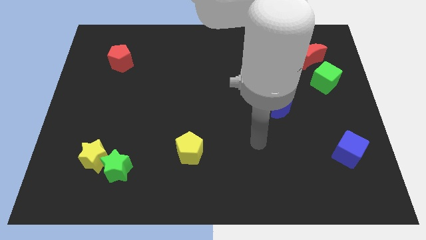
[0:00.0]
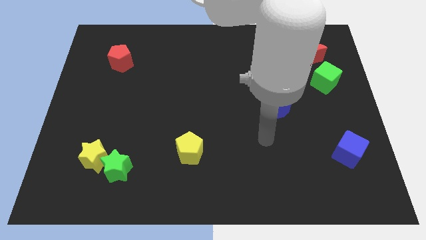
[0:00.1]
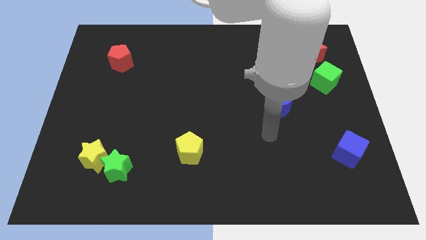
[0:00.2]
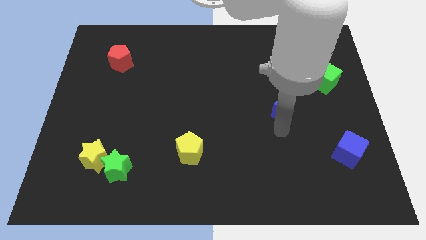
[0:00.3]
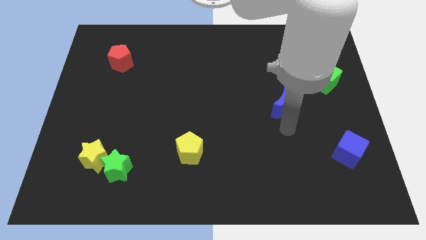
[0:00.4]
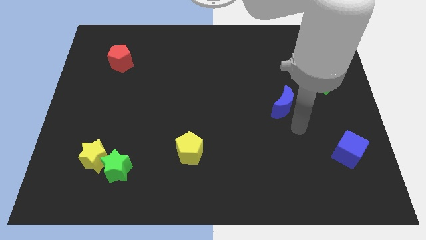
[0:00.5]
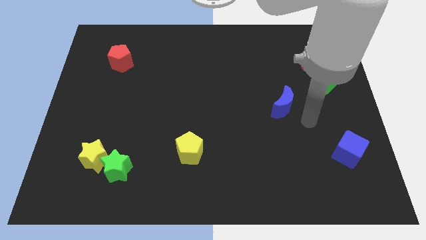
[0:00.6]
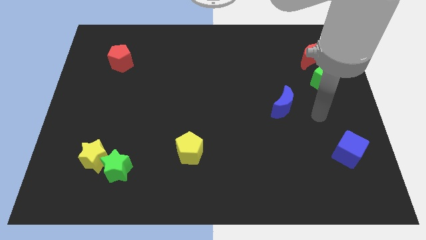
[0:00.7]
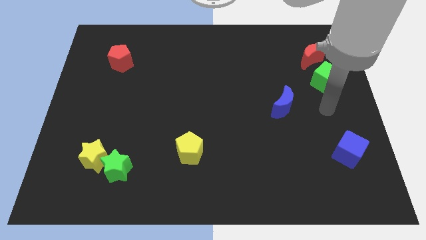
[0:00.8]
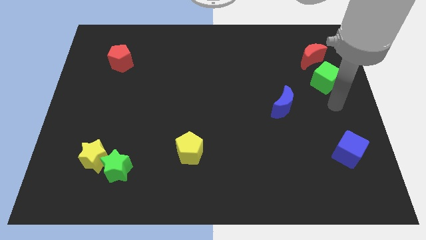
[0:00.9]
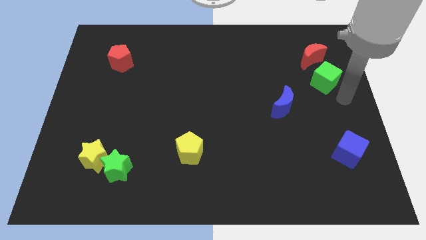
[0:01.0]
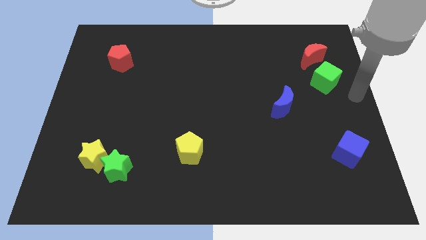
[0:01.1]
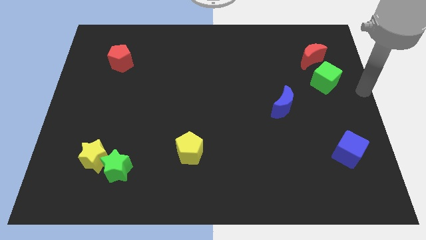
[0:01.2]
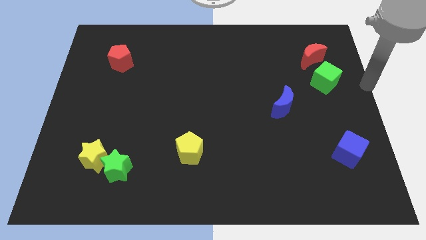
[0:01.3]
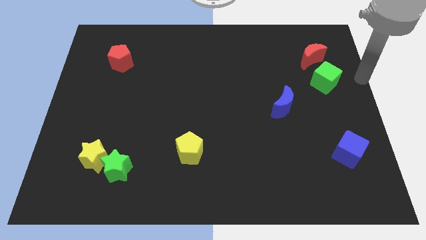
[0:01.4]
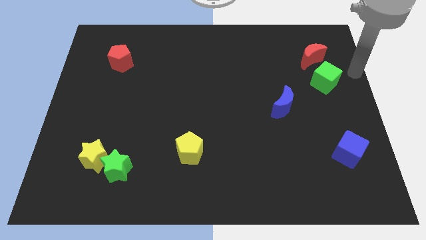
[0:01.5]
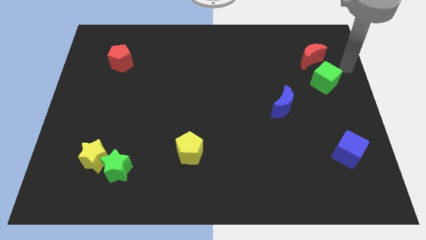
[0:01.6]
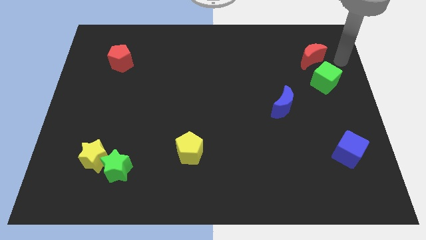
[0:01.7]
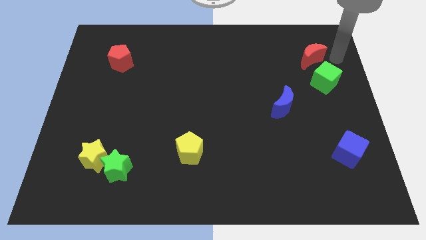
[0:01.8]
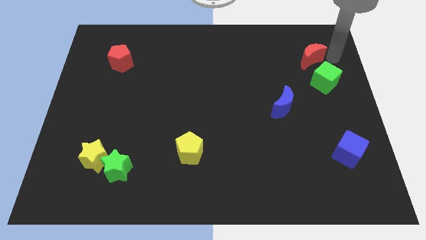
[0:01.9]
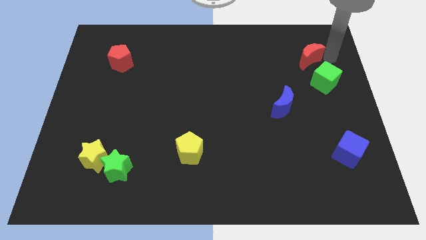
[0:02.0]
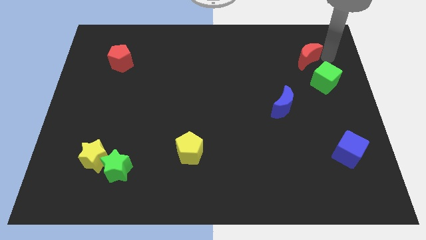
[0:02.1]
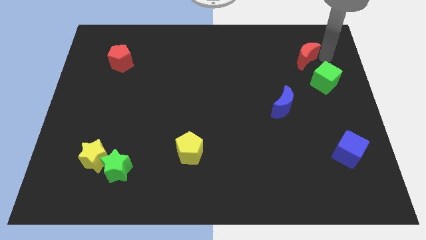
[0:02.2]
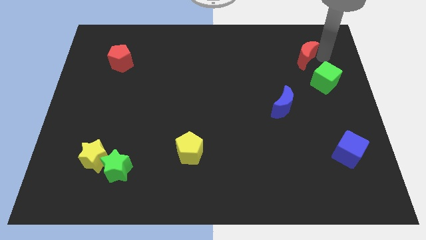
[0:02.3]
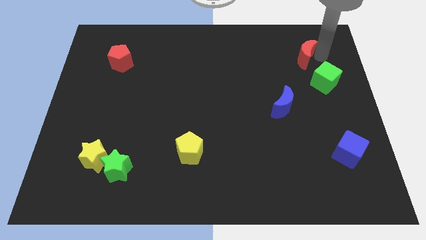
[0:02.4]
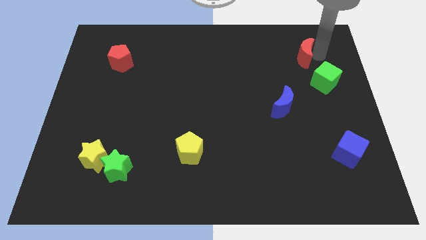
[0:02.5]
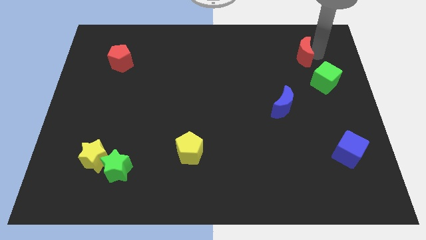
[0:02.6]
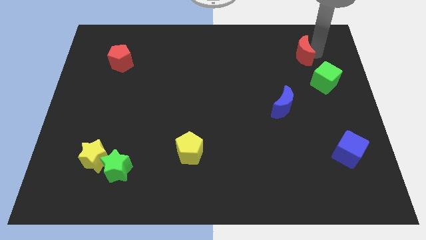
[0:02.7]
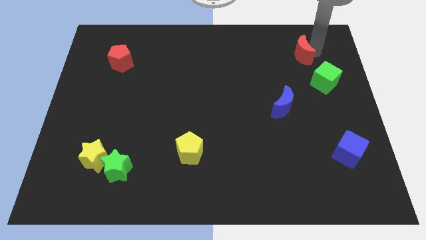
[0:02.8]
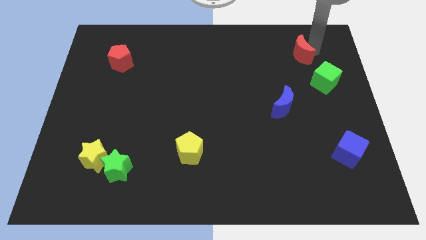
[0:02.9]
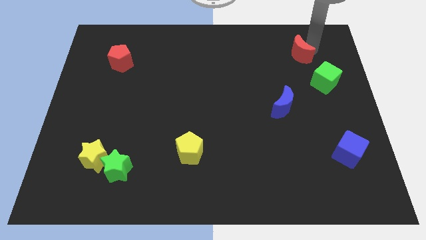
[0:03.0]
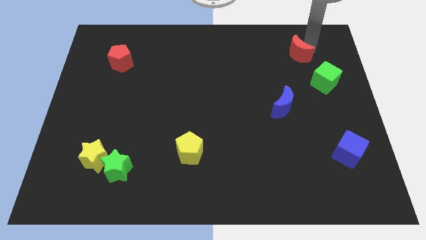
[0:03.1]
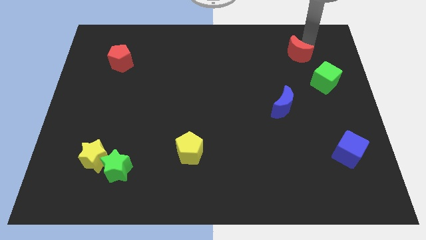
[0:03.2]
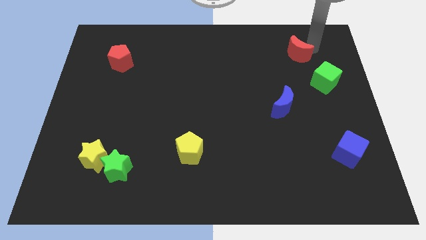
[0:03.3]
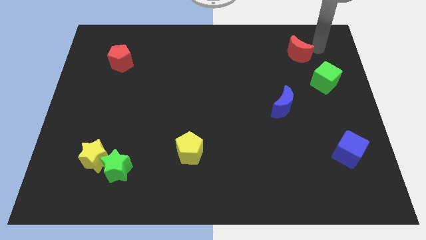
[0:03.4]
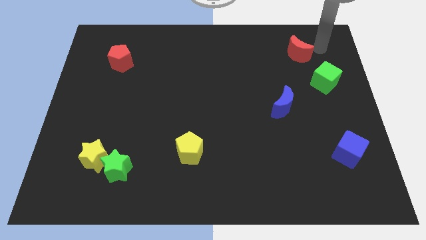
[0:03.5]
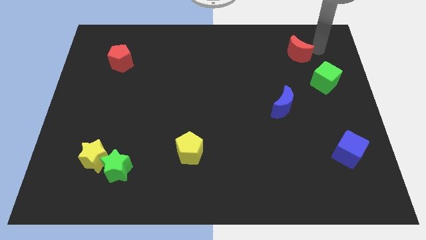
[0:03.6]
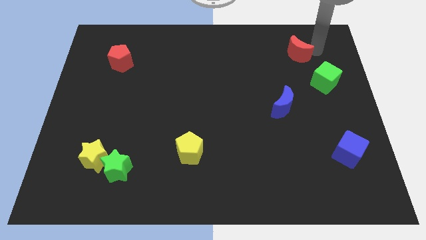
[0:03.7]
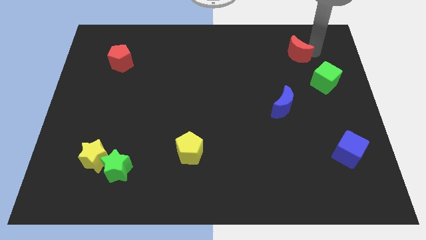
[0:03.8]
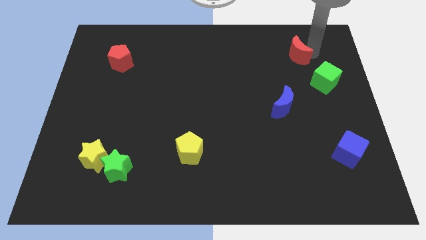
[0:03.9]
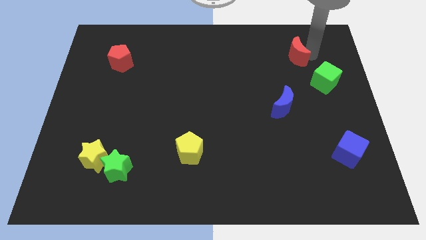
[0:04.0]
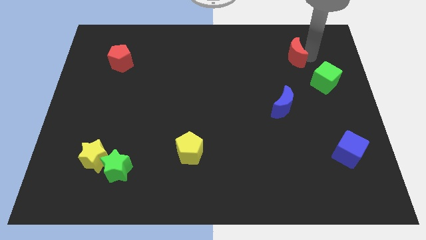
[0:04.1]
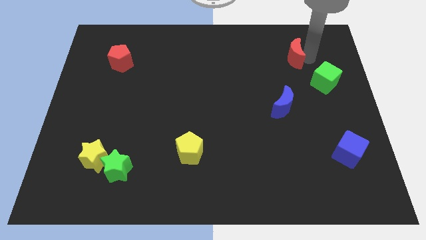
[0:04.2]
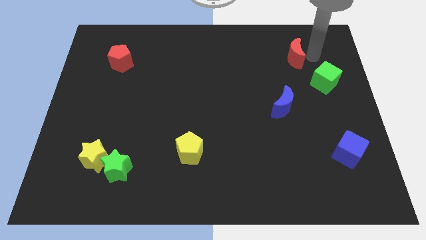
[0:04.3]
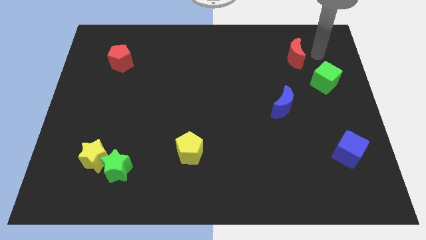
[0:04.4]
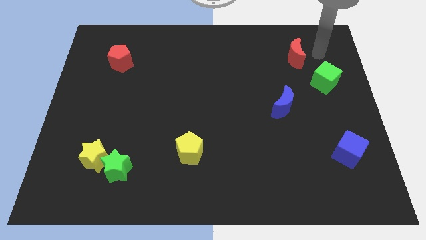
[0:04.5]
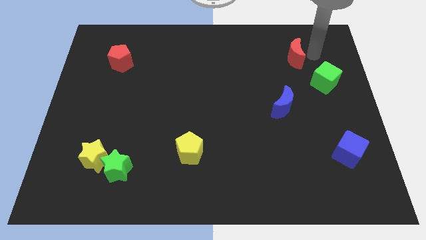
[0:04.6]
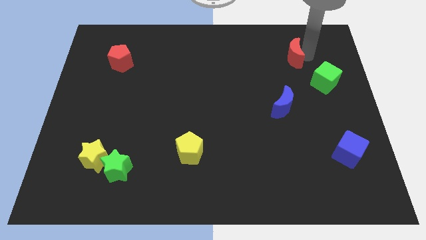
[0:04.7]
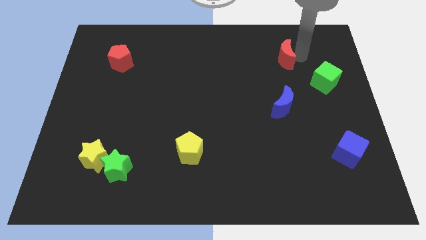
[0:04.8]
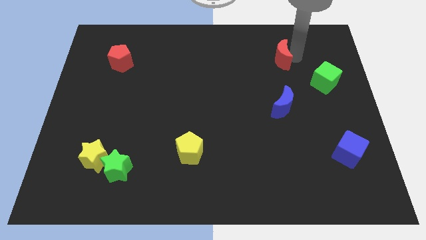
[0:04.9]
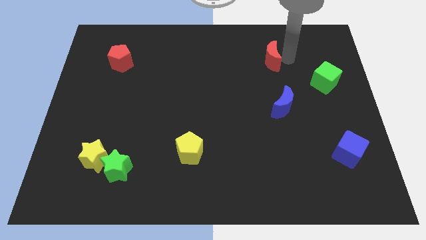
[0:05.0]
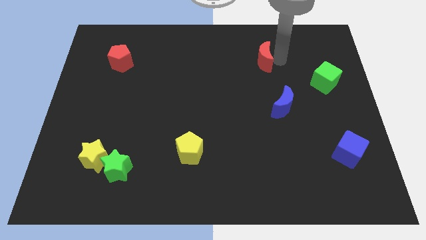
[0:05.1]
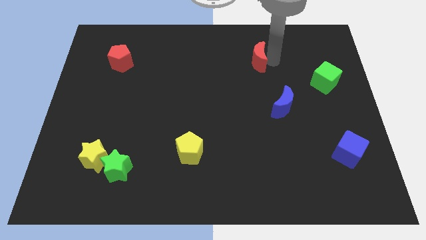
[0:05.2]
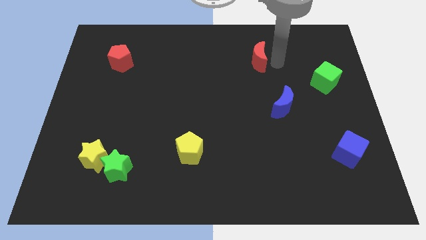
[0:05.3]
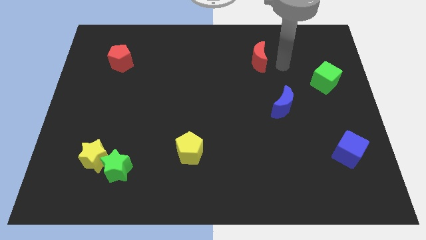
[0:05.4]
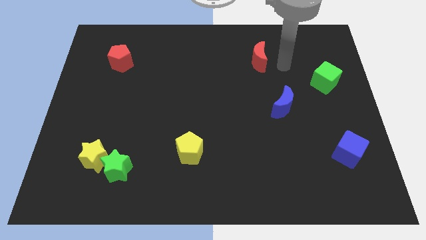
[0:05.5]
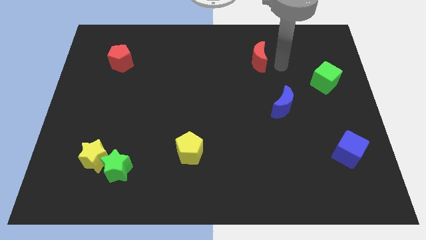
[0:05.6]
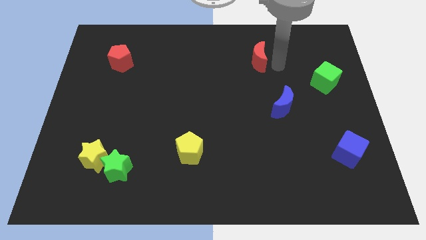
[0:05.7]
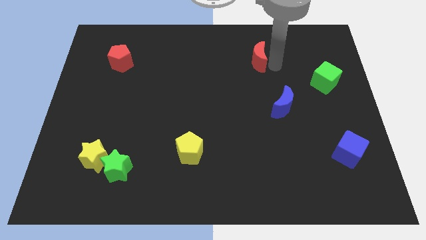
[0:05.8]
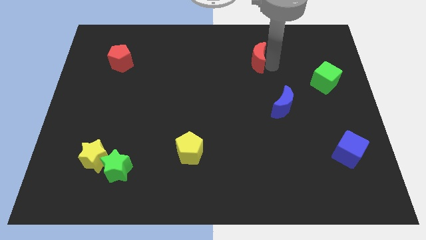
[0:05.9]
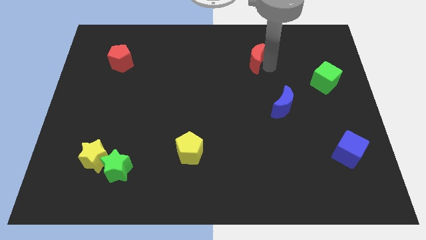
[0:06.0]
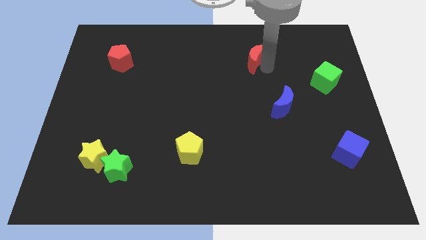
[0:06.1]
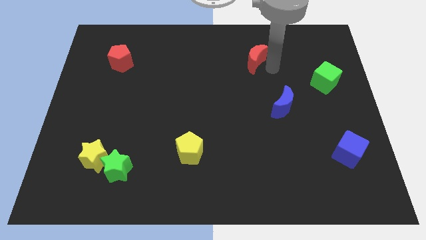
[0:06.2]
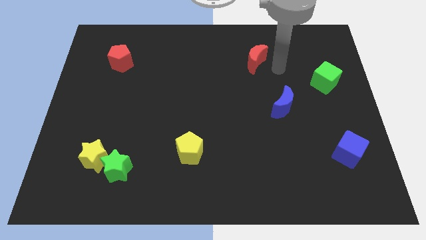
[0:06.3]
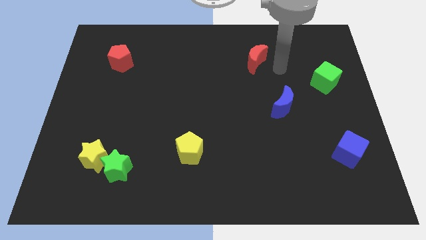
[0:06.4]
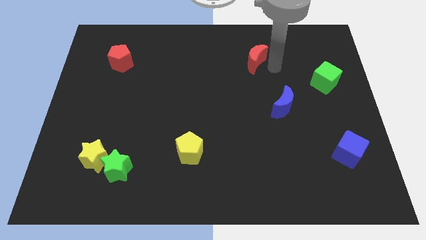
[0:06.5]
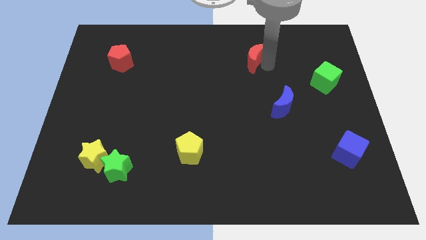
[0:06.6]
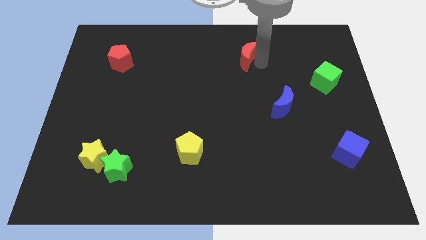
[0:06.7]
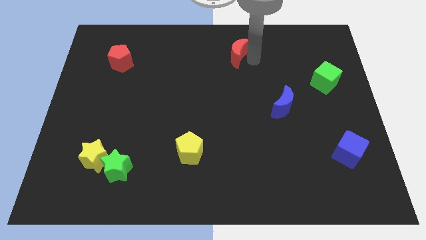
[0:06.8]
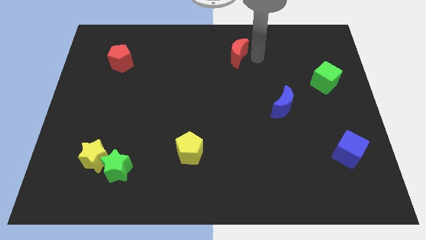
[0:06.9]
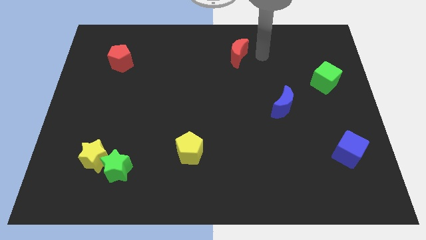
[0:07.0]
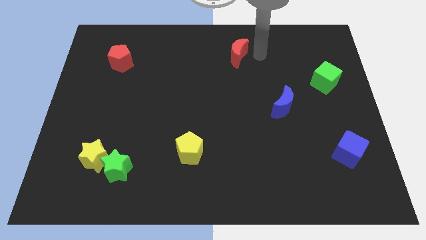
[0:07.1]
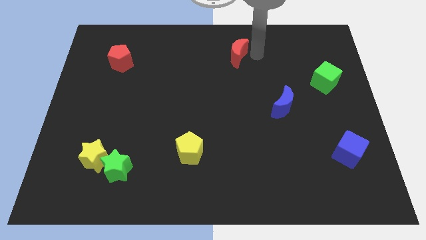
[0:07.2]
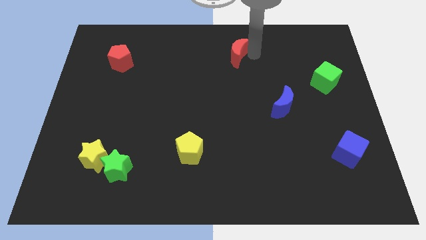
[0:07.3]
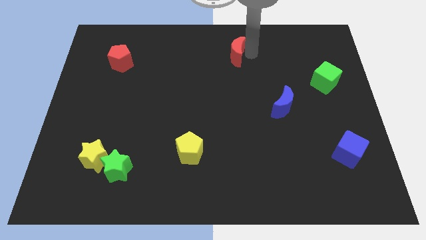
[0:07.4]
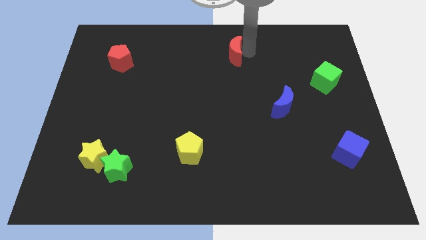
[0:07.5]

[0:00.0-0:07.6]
push the red moon left

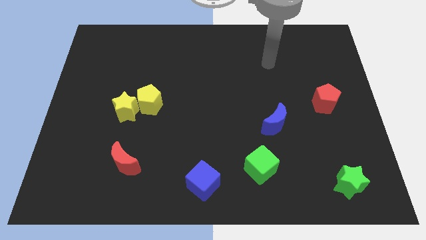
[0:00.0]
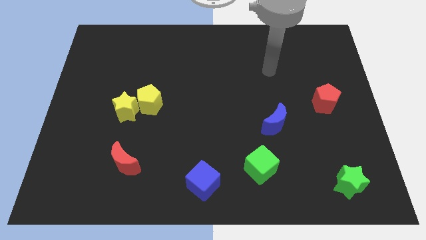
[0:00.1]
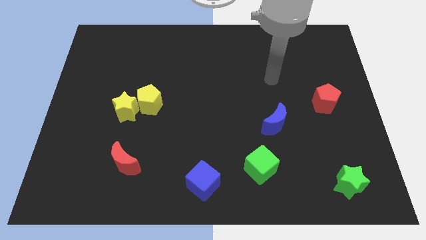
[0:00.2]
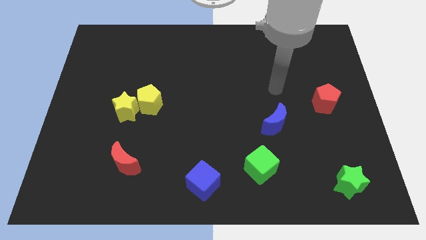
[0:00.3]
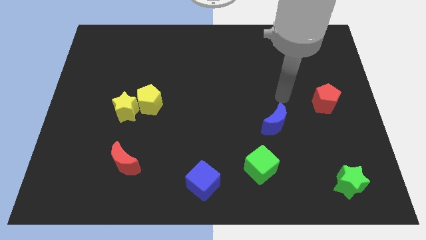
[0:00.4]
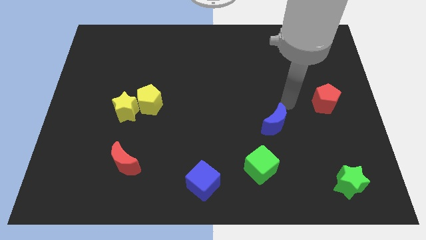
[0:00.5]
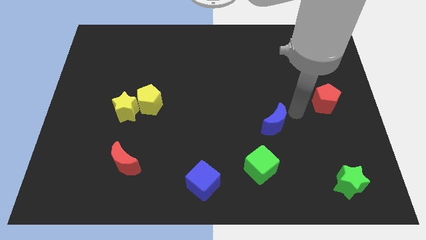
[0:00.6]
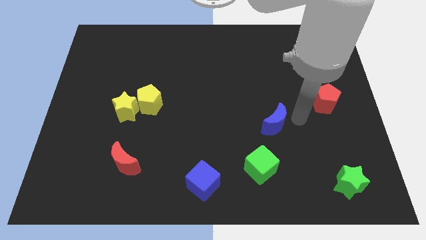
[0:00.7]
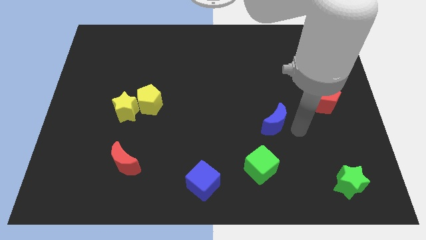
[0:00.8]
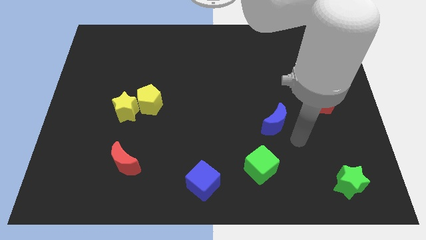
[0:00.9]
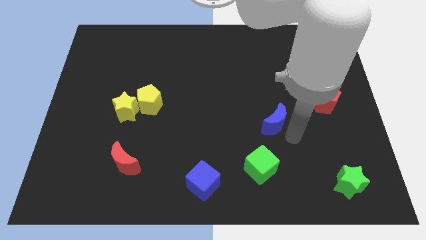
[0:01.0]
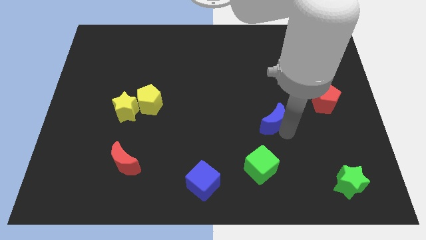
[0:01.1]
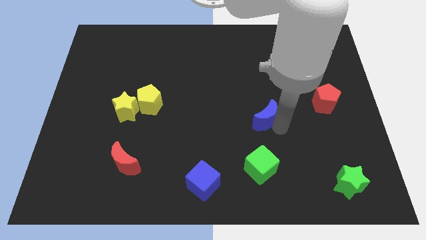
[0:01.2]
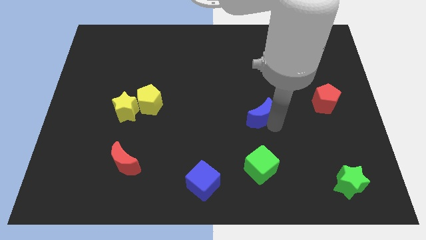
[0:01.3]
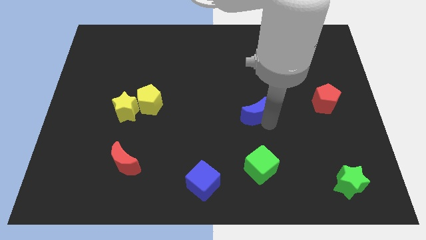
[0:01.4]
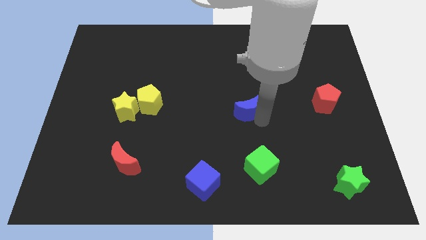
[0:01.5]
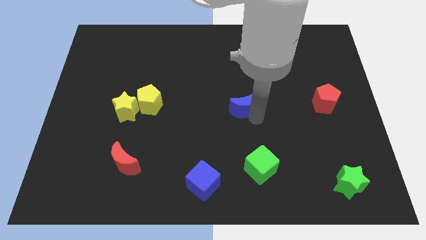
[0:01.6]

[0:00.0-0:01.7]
move the blue moon a bit upwards and to the left diagonally
